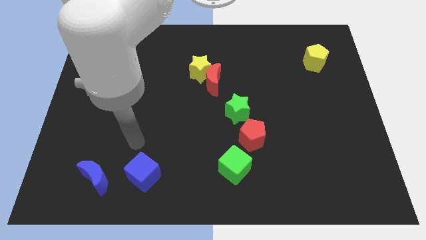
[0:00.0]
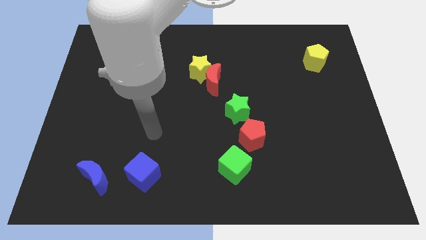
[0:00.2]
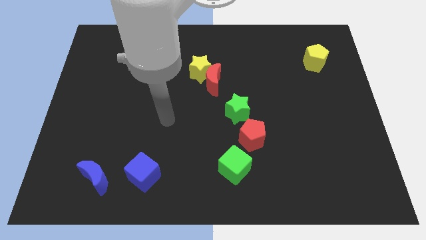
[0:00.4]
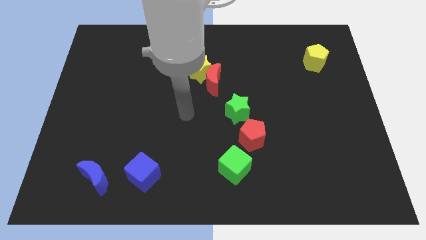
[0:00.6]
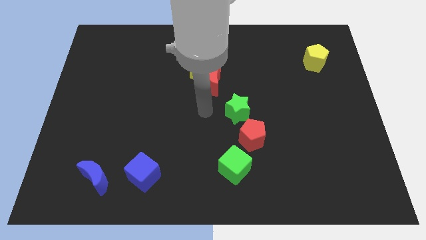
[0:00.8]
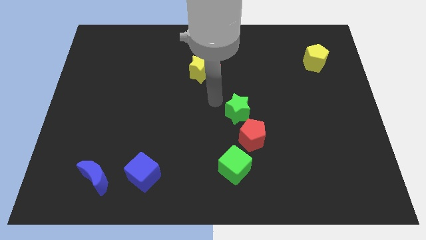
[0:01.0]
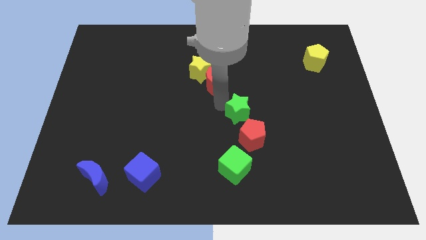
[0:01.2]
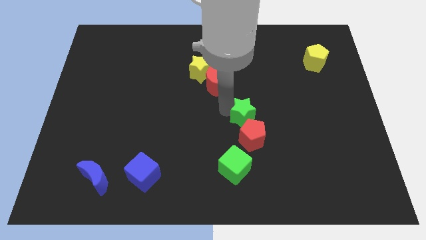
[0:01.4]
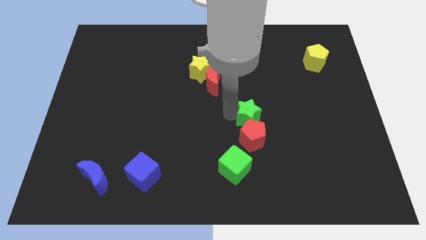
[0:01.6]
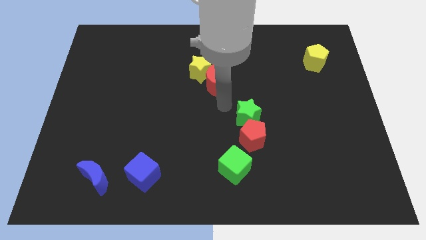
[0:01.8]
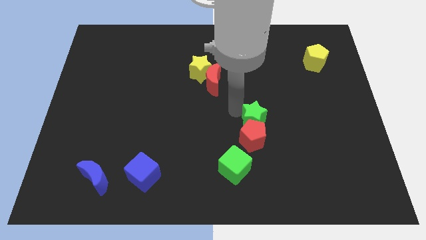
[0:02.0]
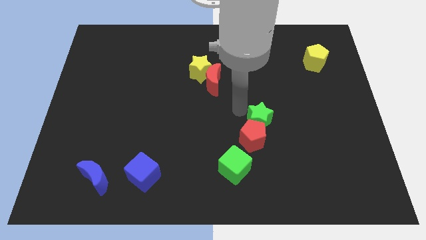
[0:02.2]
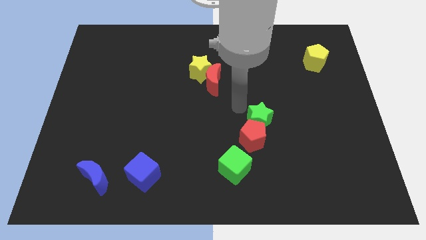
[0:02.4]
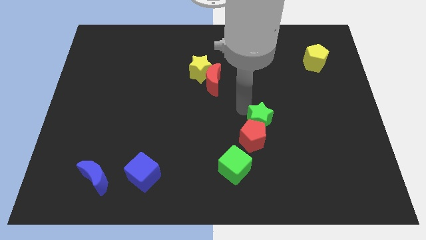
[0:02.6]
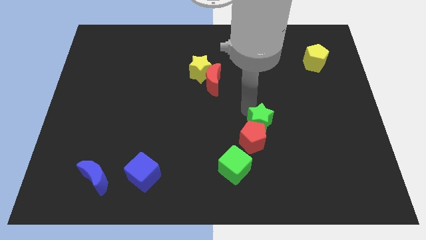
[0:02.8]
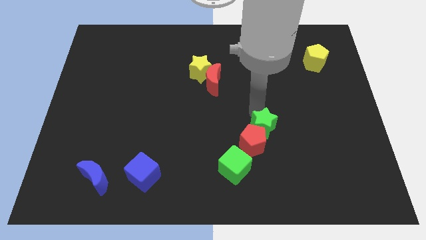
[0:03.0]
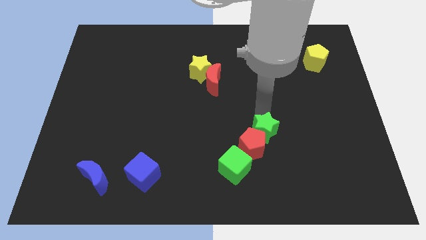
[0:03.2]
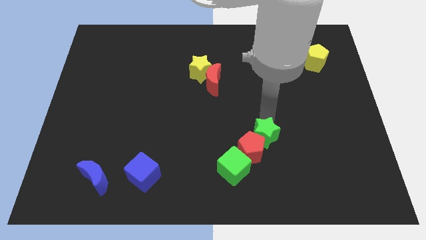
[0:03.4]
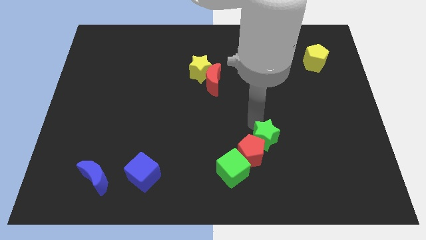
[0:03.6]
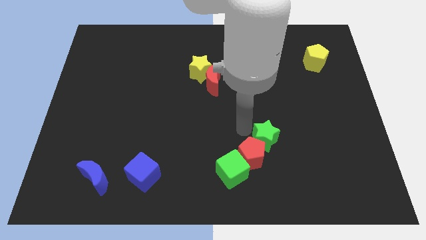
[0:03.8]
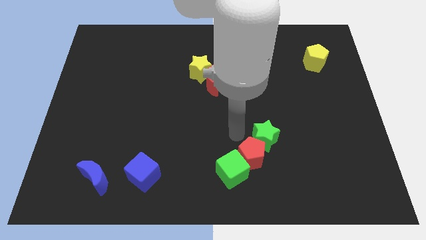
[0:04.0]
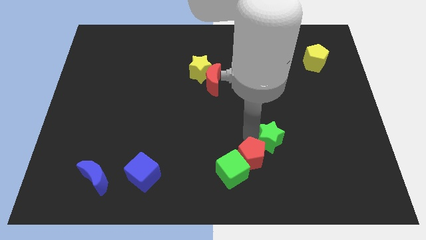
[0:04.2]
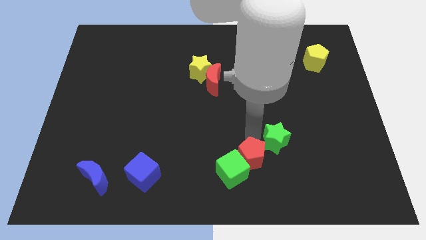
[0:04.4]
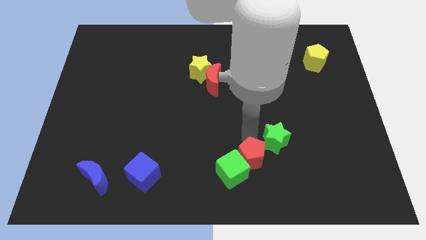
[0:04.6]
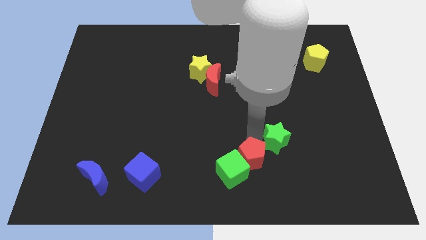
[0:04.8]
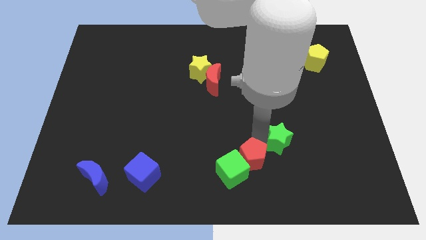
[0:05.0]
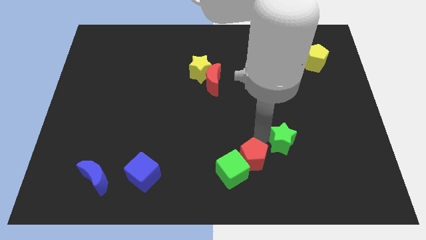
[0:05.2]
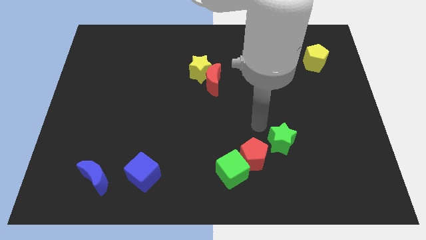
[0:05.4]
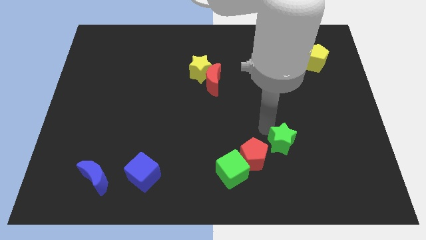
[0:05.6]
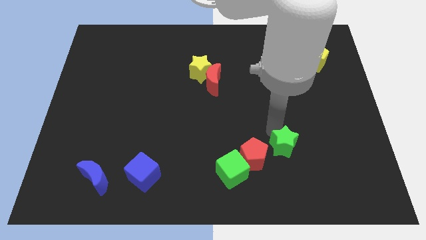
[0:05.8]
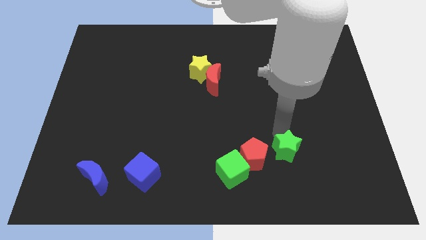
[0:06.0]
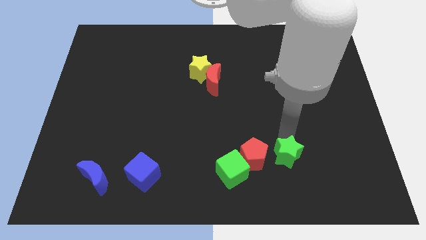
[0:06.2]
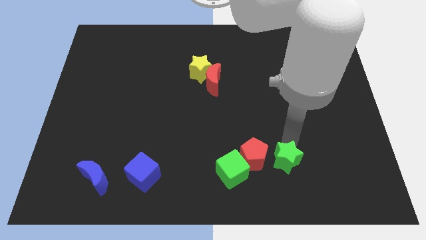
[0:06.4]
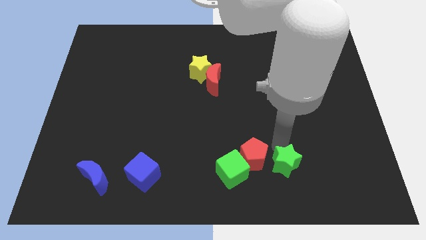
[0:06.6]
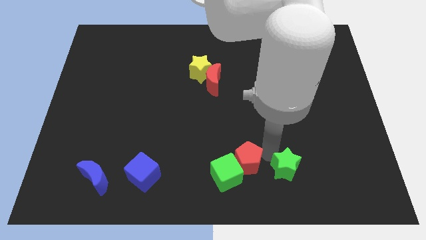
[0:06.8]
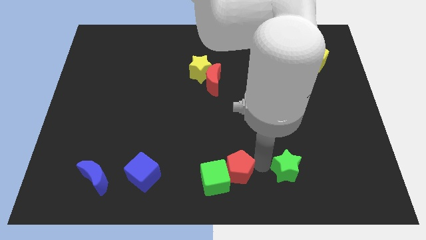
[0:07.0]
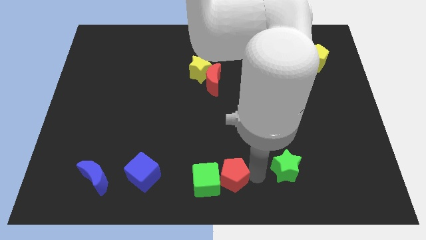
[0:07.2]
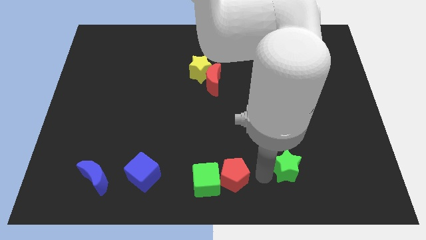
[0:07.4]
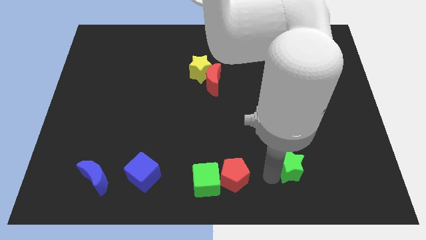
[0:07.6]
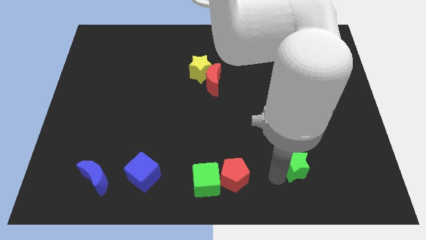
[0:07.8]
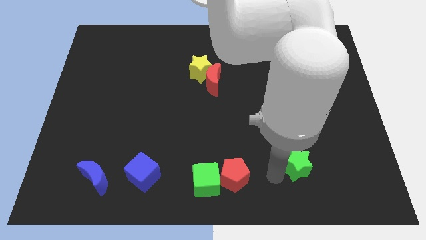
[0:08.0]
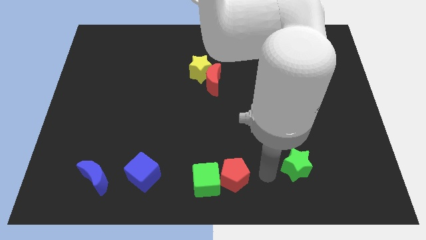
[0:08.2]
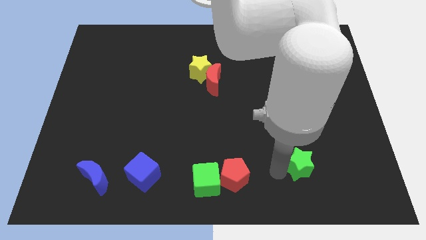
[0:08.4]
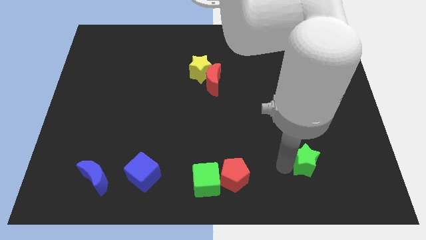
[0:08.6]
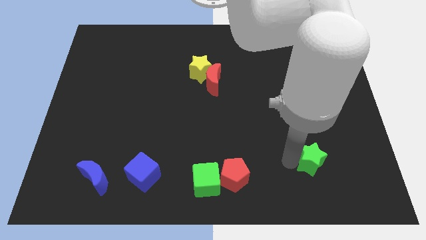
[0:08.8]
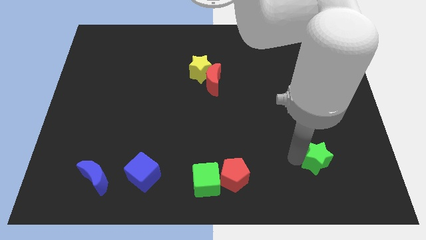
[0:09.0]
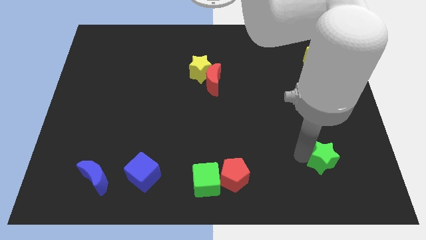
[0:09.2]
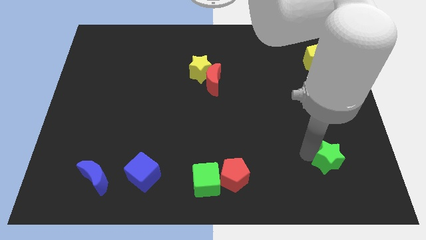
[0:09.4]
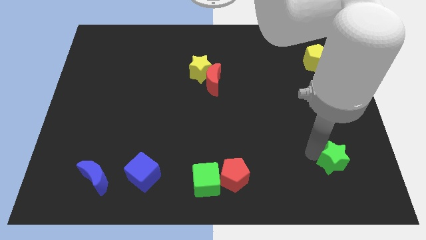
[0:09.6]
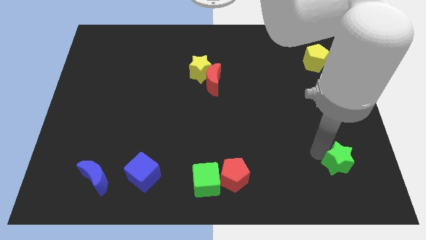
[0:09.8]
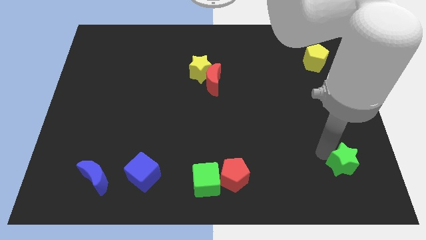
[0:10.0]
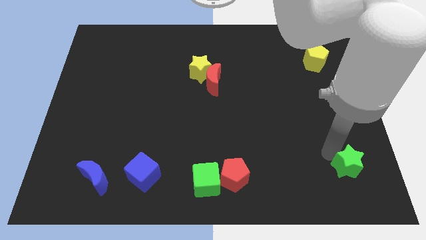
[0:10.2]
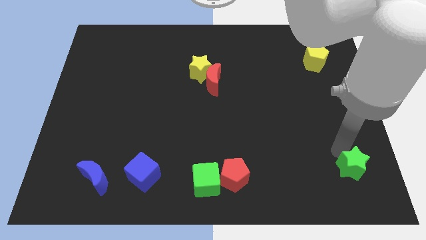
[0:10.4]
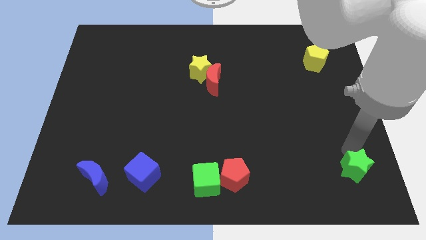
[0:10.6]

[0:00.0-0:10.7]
push the green star to the bottom right
